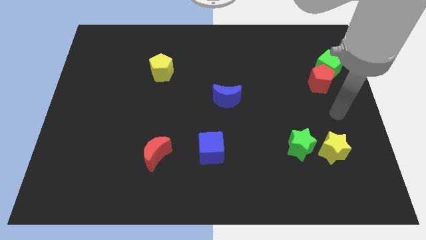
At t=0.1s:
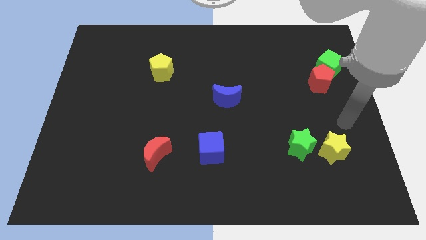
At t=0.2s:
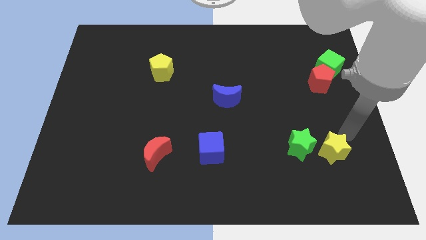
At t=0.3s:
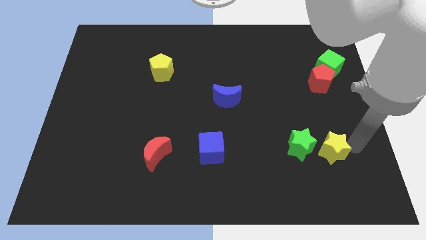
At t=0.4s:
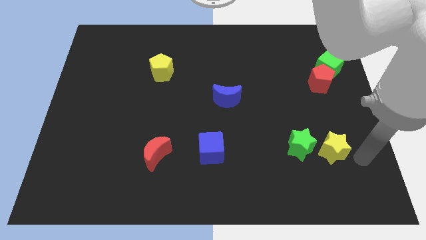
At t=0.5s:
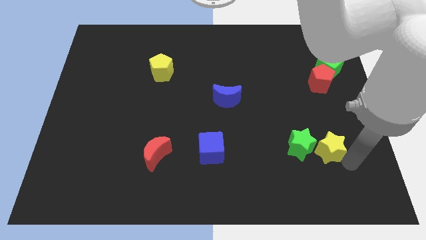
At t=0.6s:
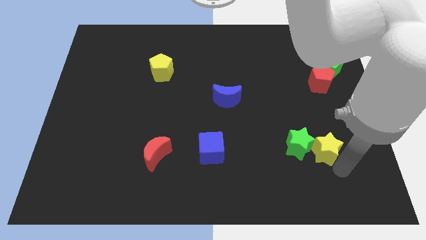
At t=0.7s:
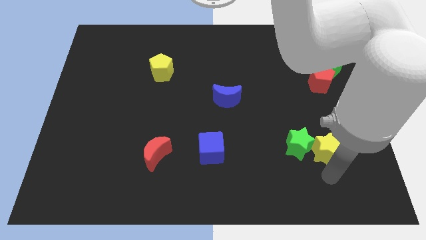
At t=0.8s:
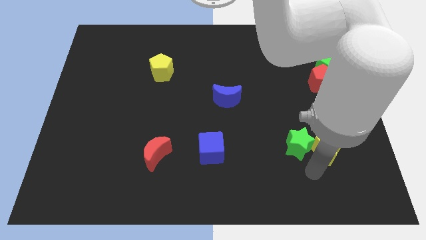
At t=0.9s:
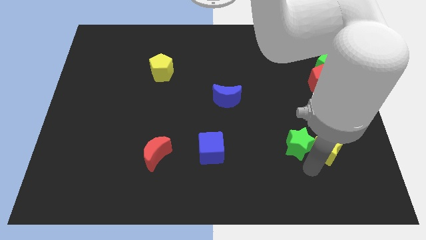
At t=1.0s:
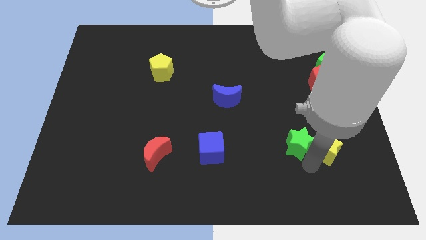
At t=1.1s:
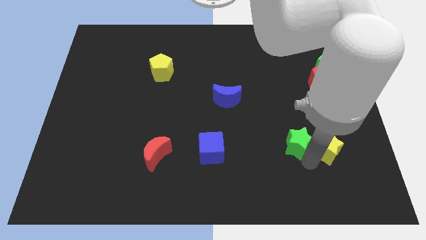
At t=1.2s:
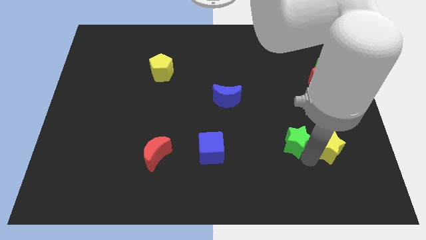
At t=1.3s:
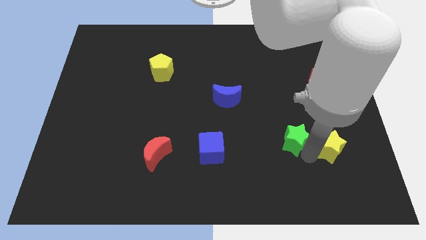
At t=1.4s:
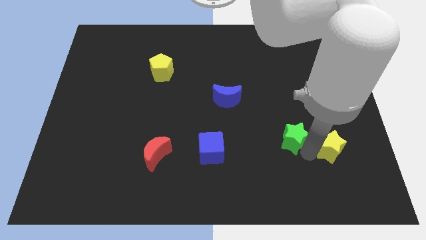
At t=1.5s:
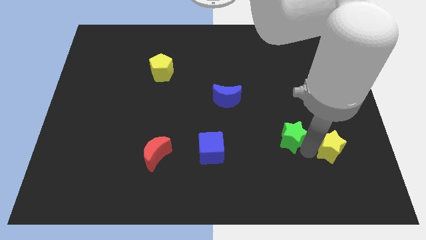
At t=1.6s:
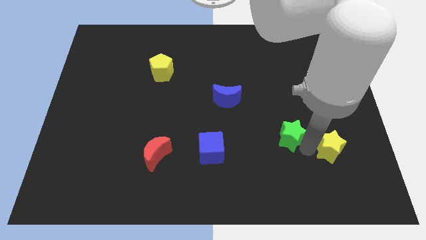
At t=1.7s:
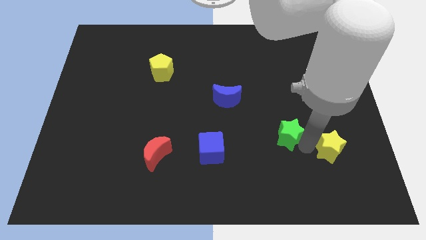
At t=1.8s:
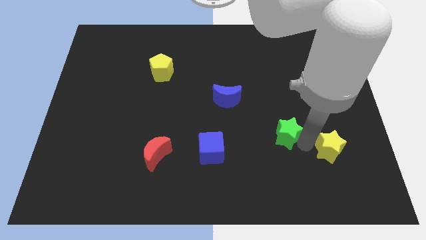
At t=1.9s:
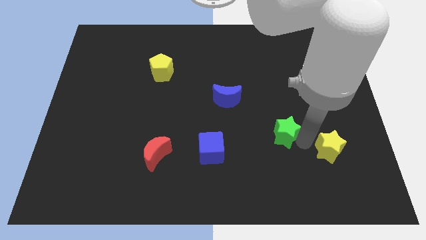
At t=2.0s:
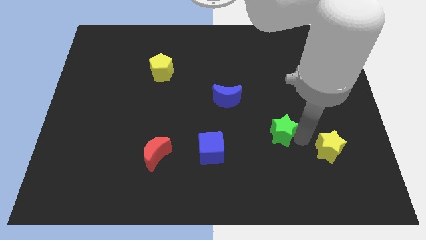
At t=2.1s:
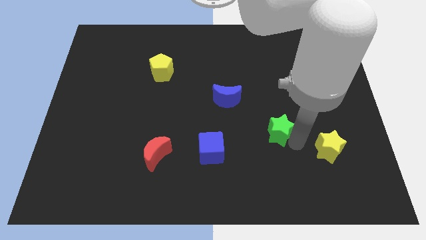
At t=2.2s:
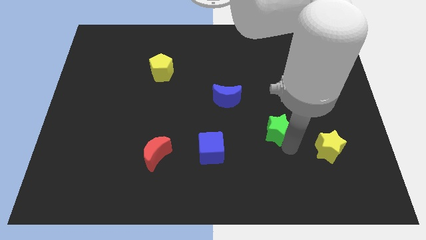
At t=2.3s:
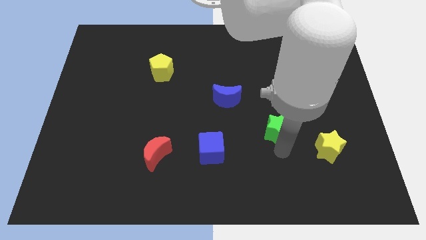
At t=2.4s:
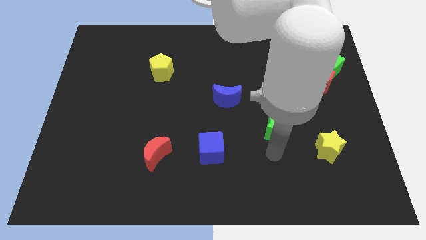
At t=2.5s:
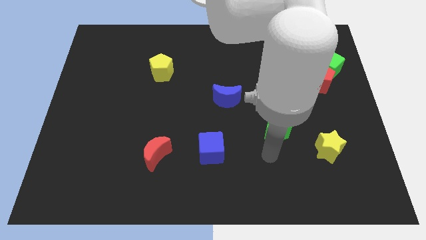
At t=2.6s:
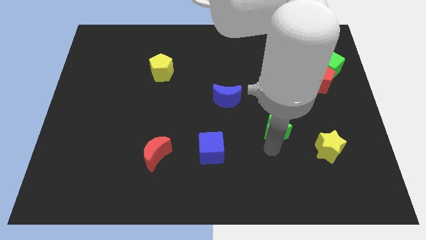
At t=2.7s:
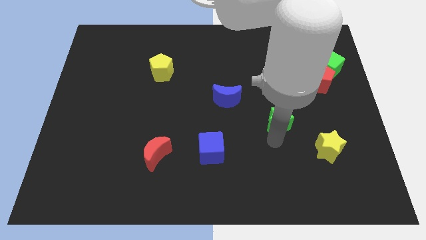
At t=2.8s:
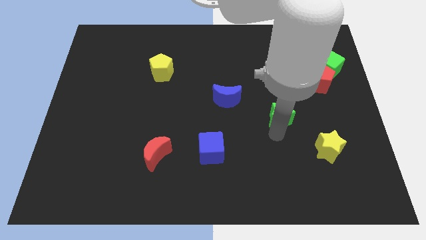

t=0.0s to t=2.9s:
move the green star a little bit up

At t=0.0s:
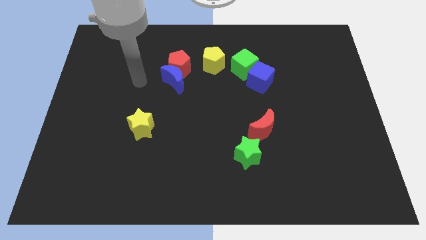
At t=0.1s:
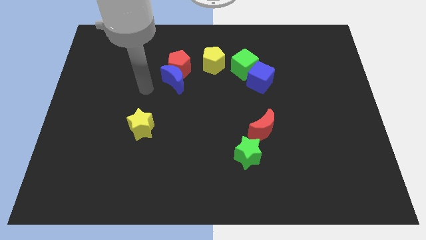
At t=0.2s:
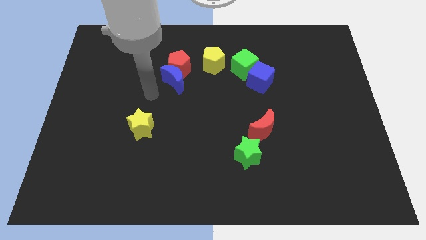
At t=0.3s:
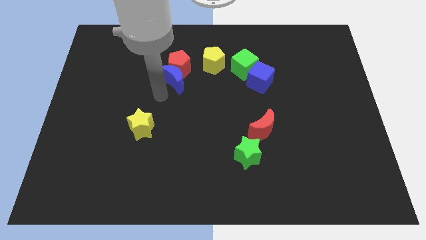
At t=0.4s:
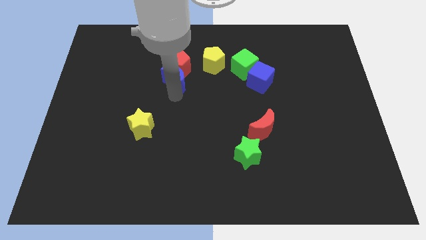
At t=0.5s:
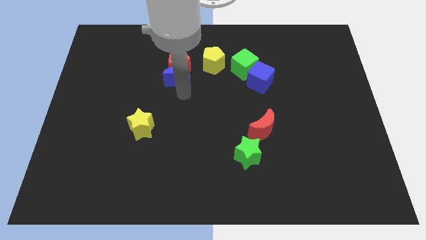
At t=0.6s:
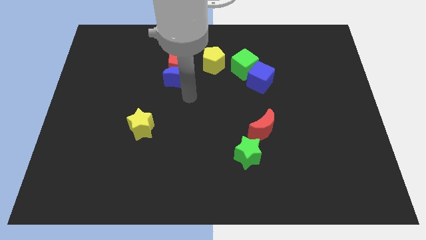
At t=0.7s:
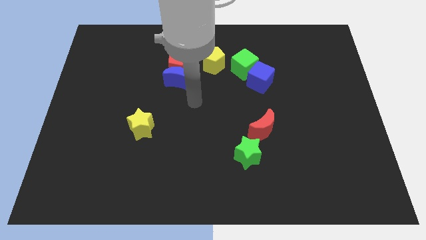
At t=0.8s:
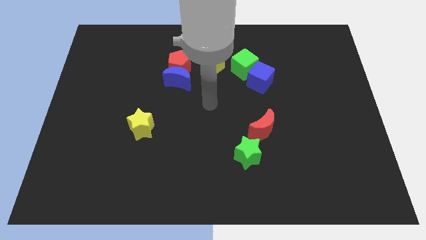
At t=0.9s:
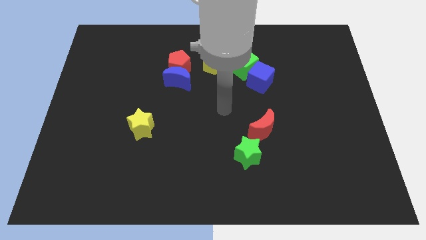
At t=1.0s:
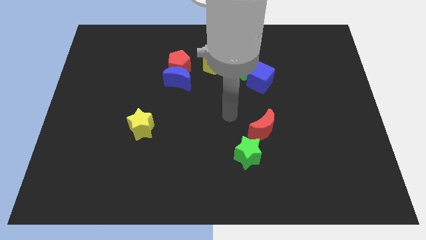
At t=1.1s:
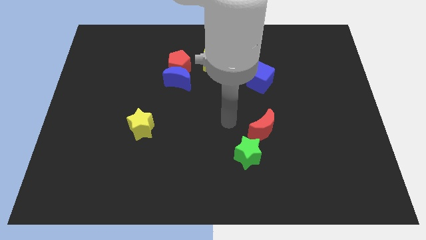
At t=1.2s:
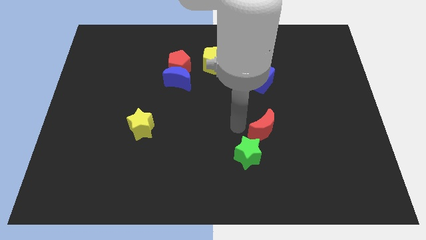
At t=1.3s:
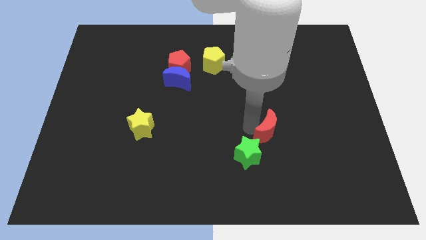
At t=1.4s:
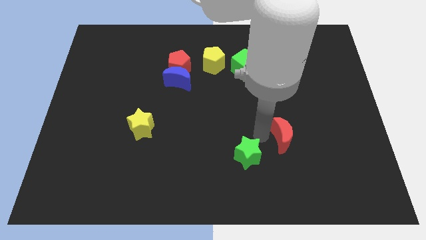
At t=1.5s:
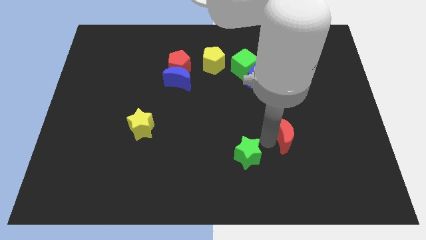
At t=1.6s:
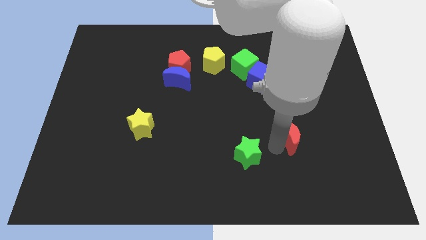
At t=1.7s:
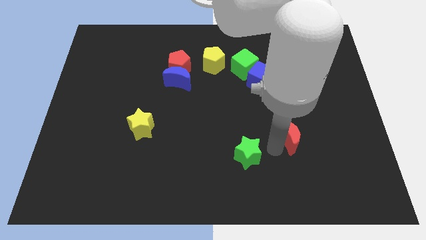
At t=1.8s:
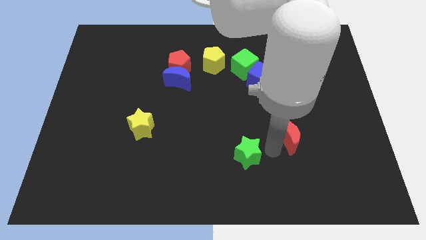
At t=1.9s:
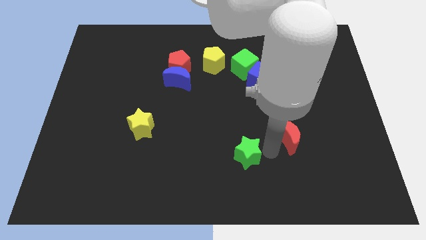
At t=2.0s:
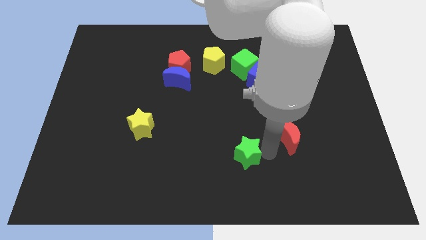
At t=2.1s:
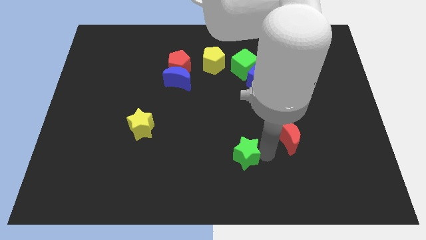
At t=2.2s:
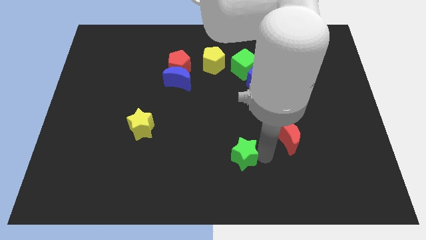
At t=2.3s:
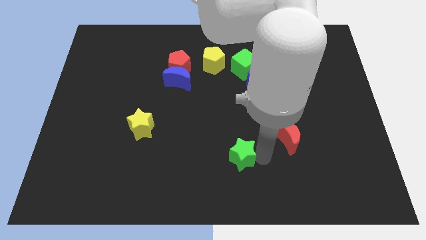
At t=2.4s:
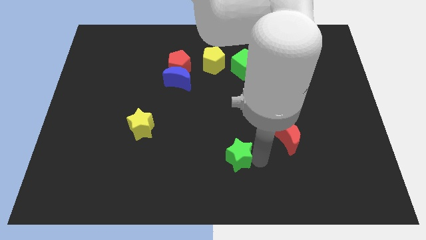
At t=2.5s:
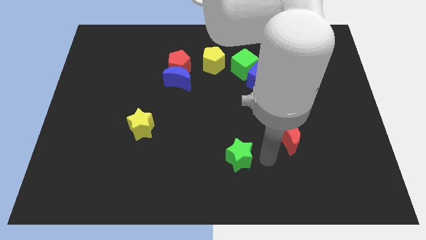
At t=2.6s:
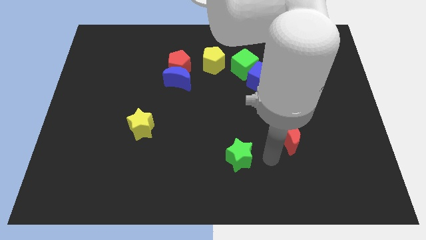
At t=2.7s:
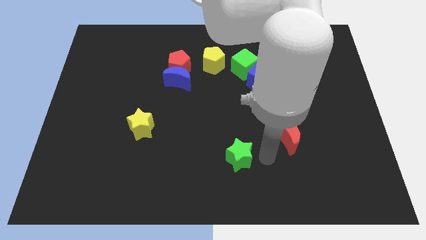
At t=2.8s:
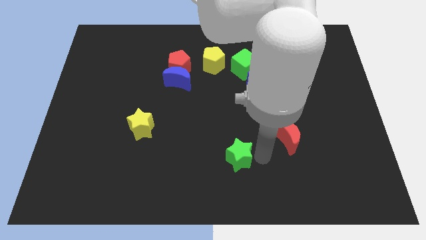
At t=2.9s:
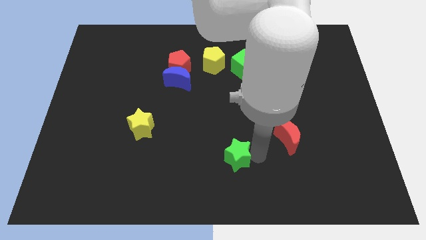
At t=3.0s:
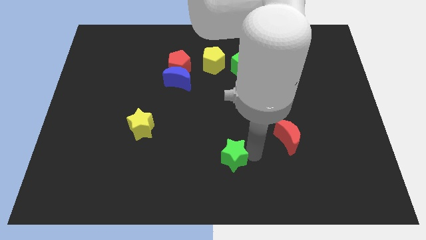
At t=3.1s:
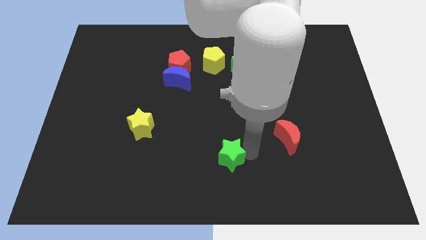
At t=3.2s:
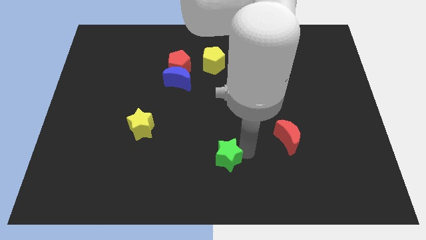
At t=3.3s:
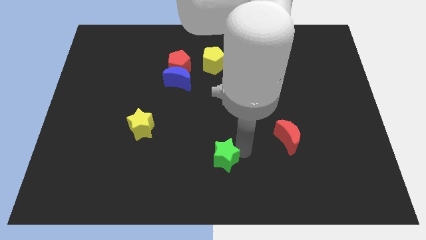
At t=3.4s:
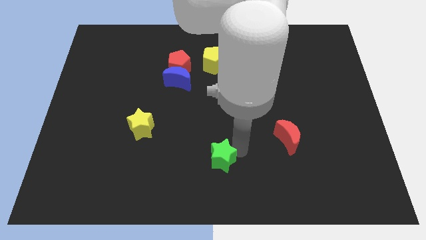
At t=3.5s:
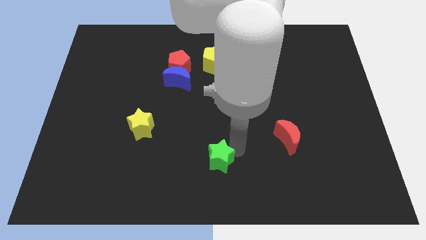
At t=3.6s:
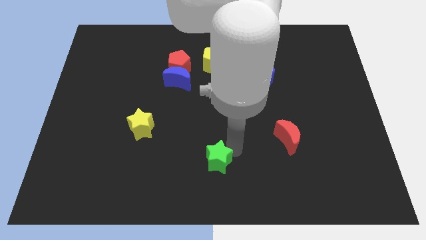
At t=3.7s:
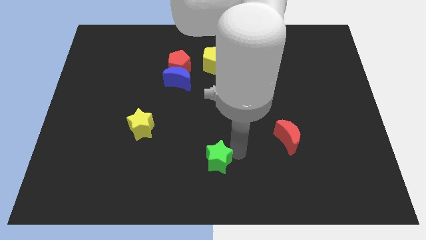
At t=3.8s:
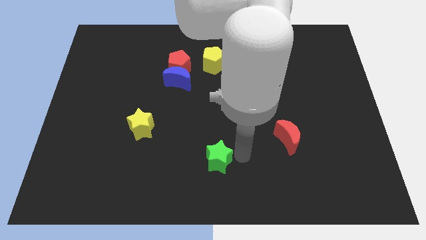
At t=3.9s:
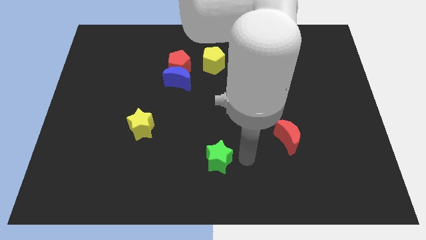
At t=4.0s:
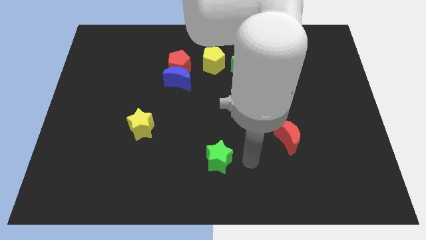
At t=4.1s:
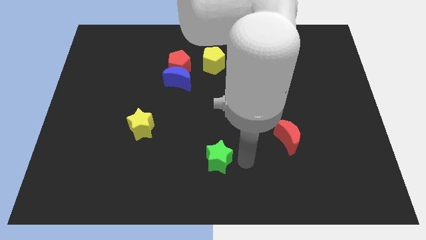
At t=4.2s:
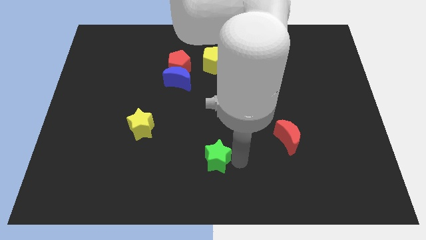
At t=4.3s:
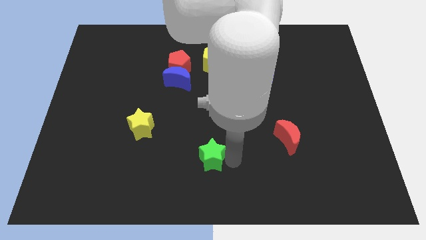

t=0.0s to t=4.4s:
push the green star a little left

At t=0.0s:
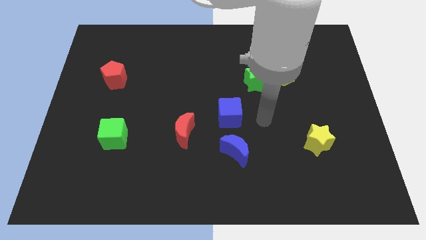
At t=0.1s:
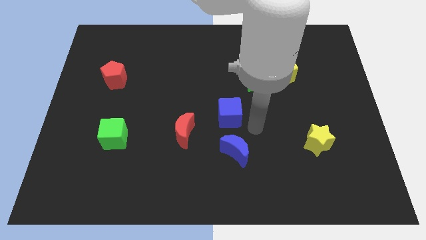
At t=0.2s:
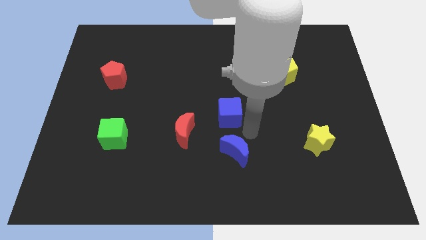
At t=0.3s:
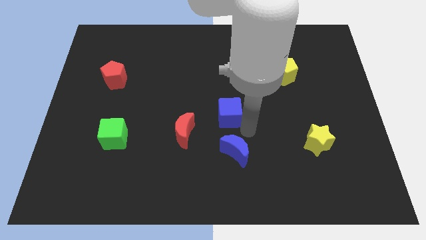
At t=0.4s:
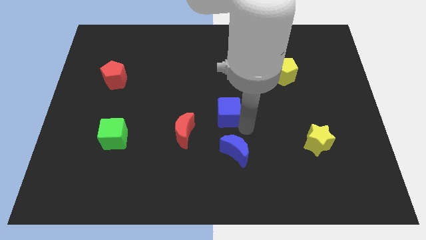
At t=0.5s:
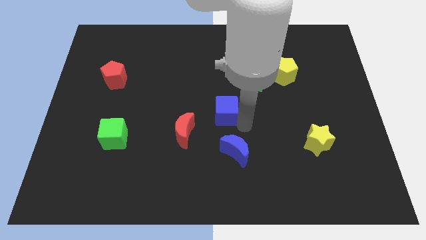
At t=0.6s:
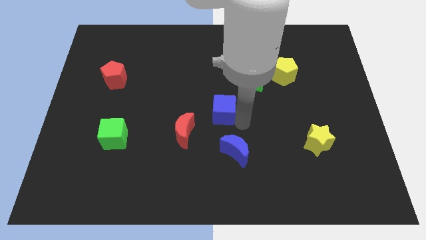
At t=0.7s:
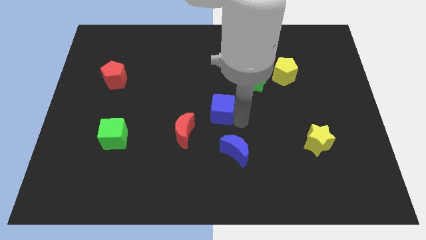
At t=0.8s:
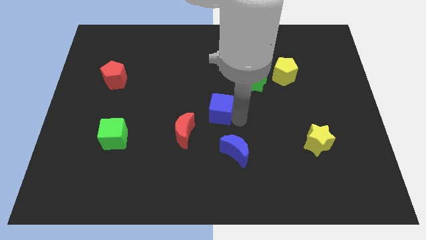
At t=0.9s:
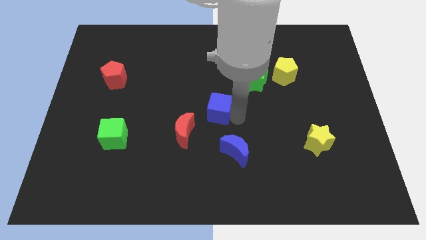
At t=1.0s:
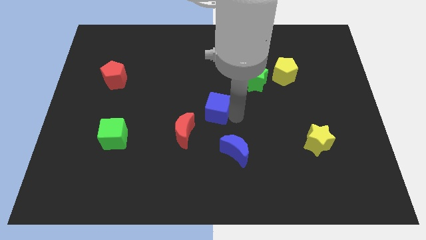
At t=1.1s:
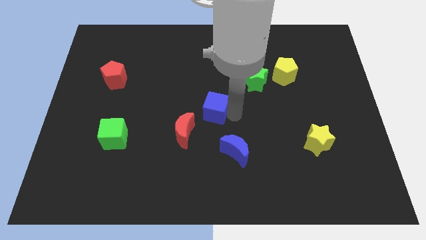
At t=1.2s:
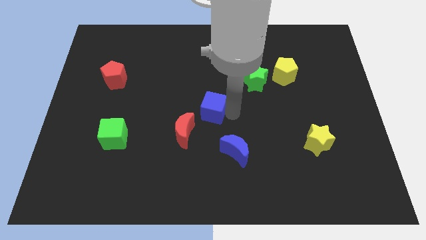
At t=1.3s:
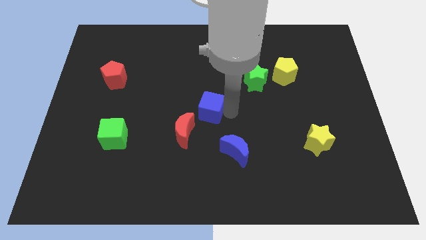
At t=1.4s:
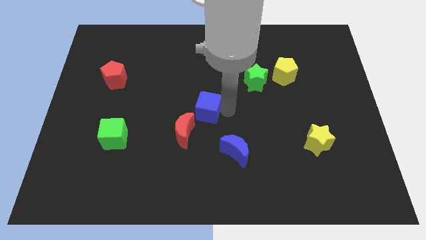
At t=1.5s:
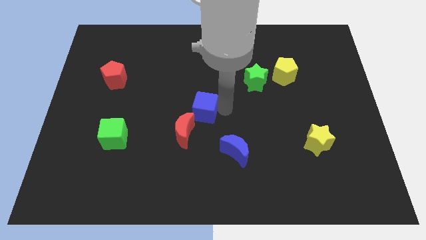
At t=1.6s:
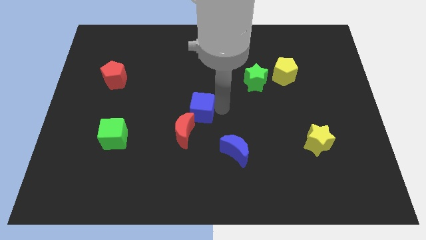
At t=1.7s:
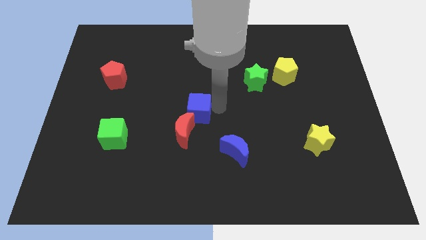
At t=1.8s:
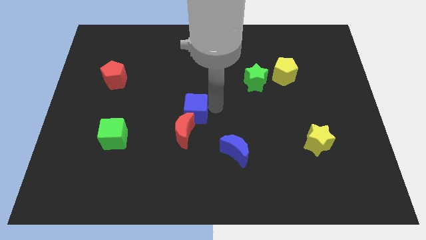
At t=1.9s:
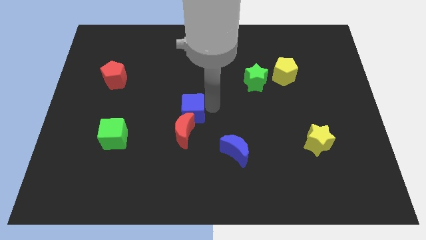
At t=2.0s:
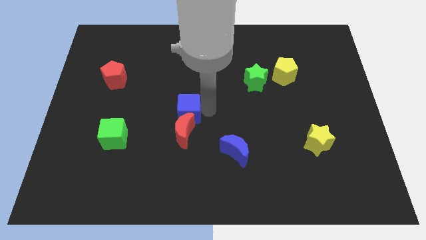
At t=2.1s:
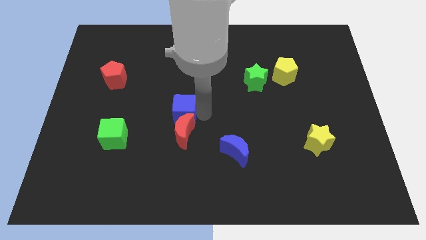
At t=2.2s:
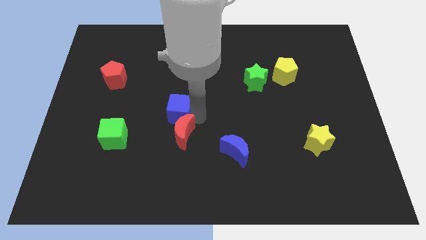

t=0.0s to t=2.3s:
move the blue cube somewhat up and left
